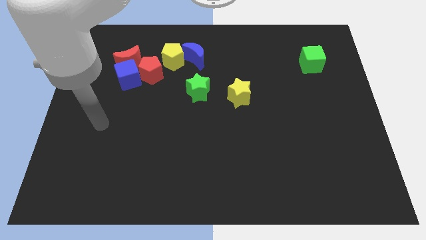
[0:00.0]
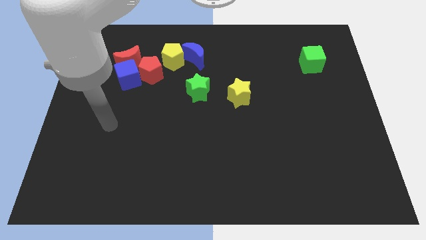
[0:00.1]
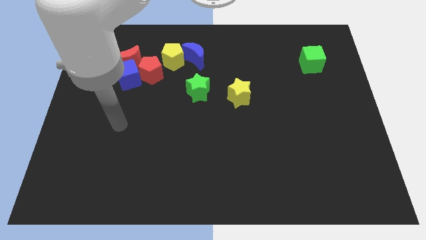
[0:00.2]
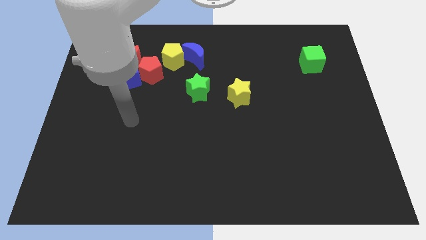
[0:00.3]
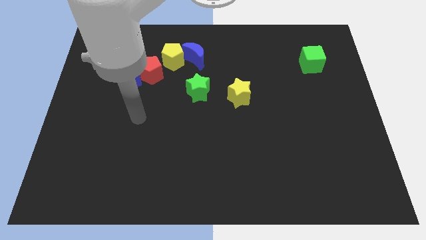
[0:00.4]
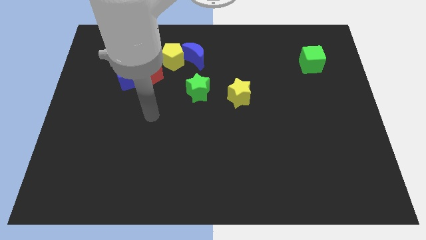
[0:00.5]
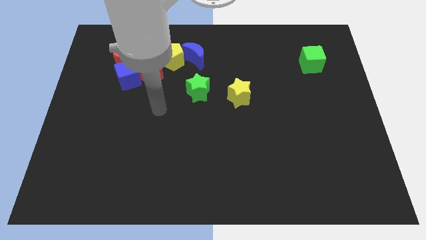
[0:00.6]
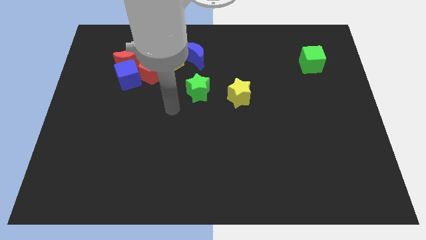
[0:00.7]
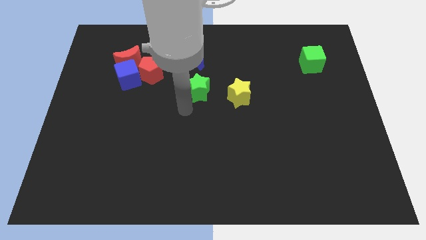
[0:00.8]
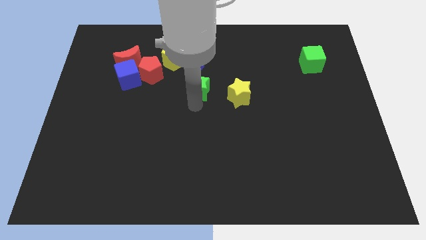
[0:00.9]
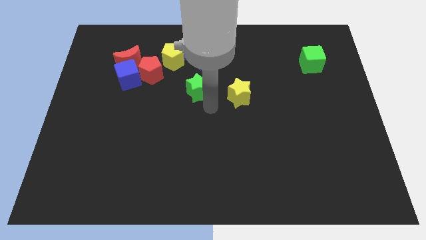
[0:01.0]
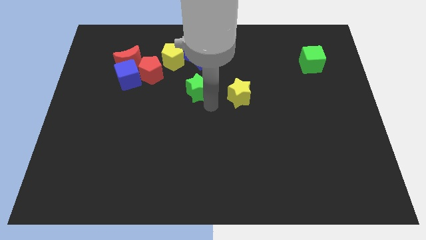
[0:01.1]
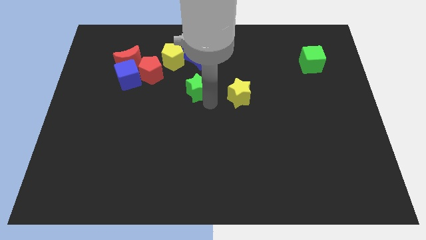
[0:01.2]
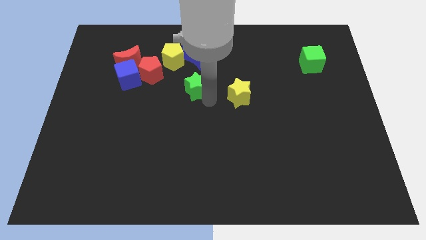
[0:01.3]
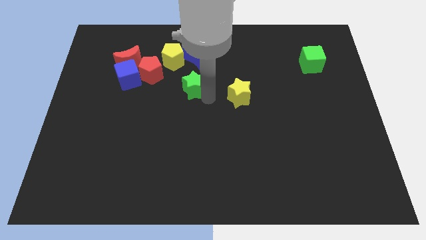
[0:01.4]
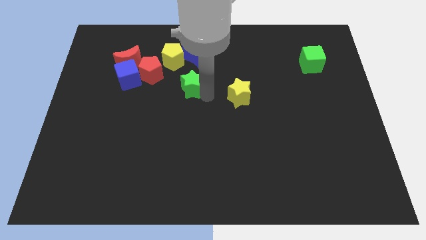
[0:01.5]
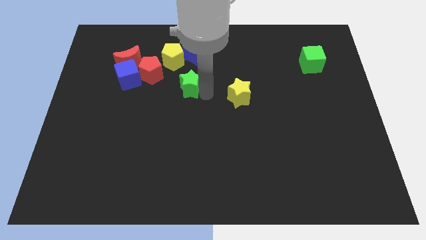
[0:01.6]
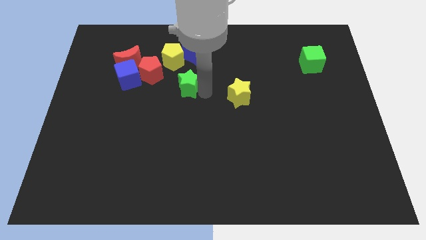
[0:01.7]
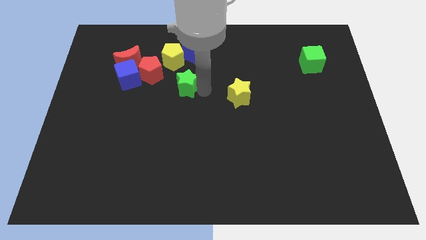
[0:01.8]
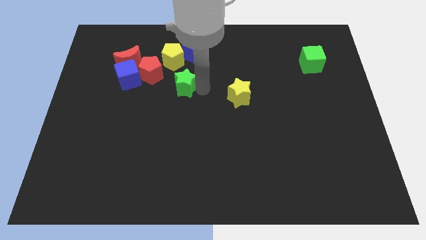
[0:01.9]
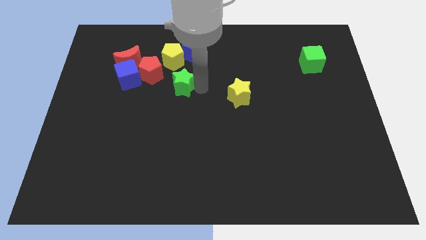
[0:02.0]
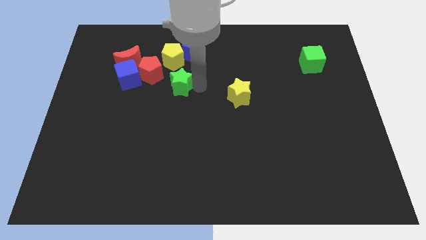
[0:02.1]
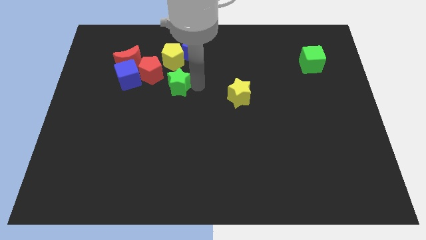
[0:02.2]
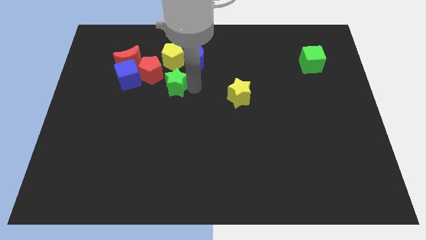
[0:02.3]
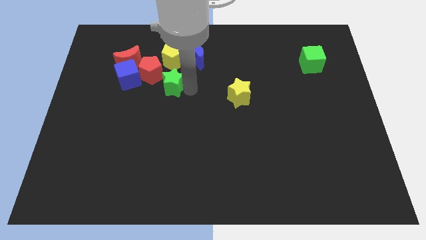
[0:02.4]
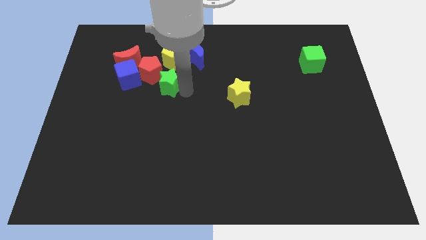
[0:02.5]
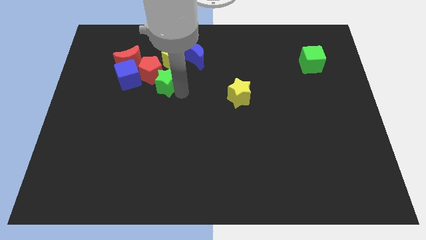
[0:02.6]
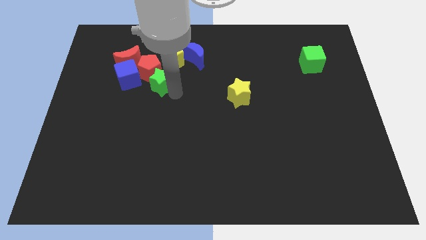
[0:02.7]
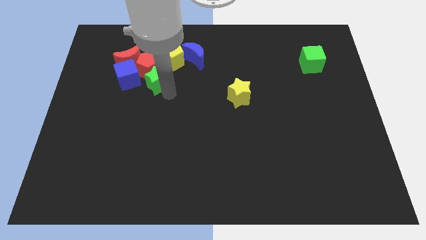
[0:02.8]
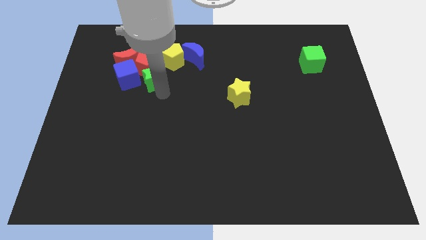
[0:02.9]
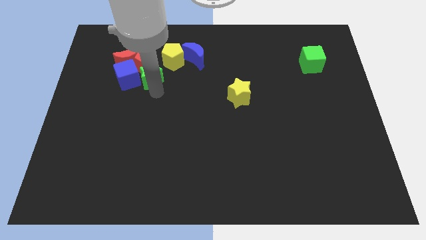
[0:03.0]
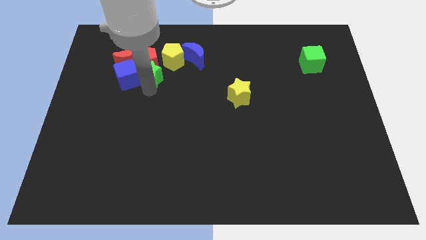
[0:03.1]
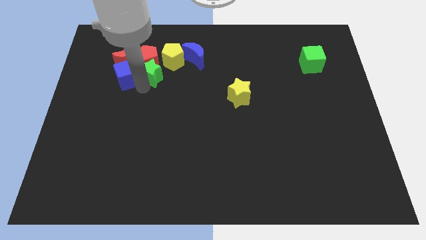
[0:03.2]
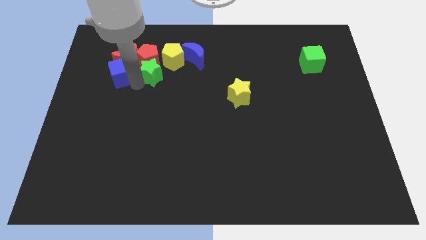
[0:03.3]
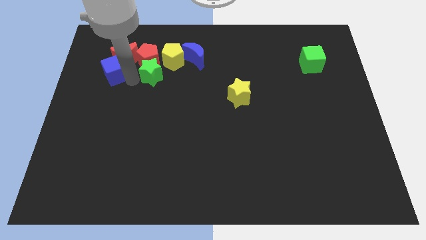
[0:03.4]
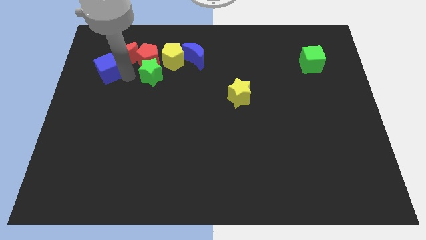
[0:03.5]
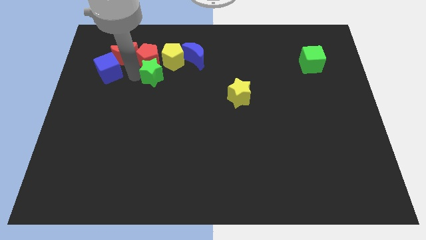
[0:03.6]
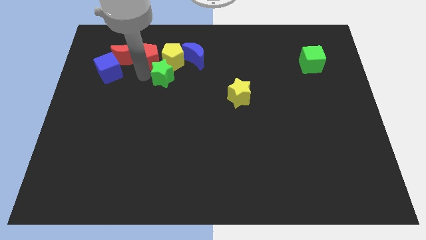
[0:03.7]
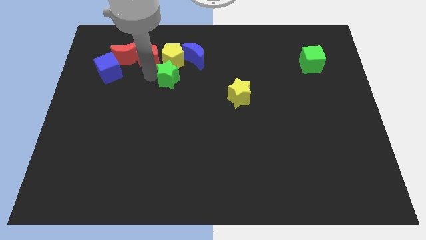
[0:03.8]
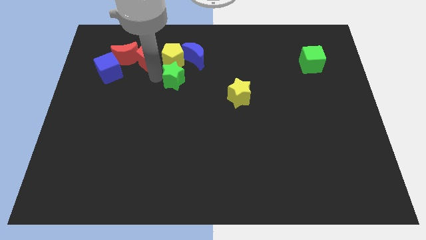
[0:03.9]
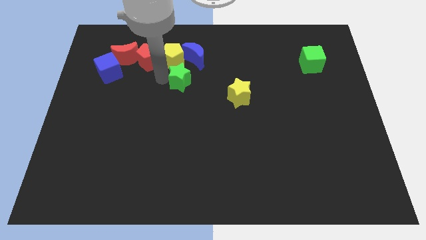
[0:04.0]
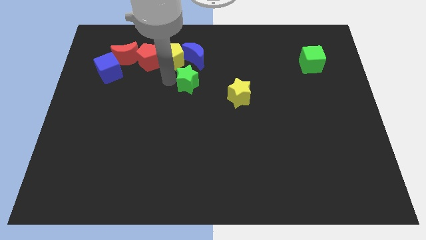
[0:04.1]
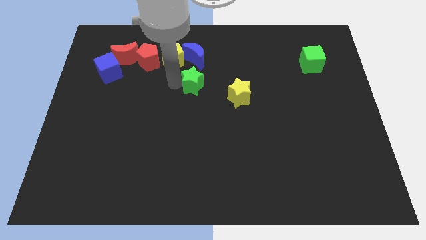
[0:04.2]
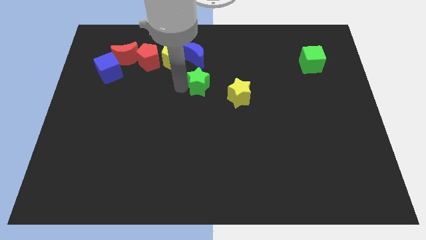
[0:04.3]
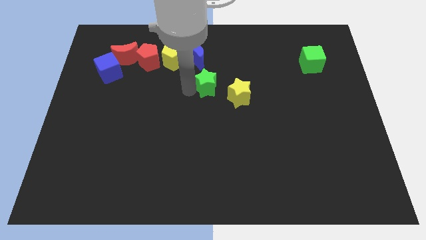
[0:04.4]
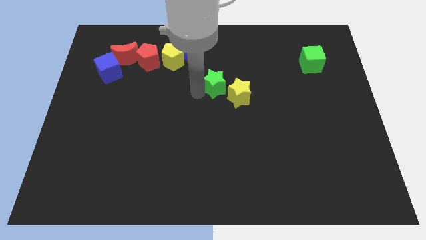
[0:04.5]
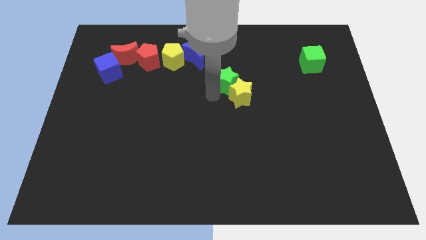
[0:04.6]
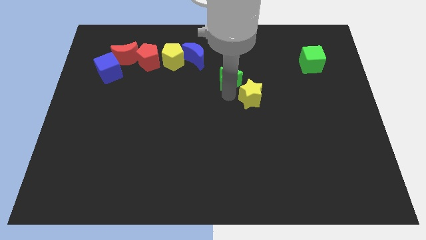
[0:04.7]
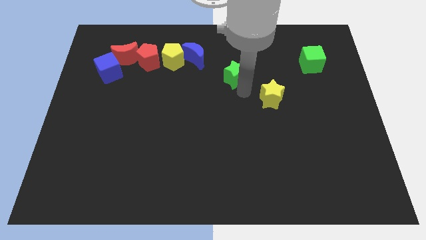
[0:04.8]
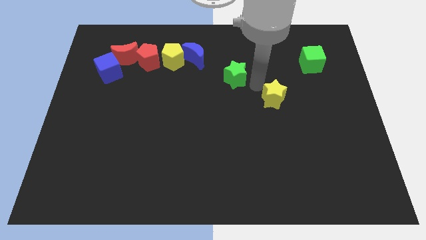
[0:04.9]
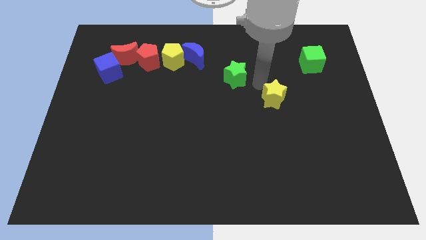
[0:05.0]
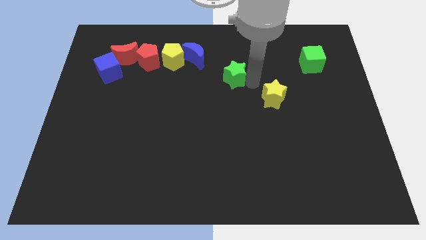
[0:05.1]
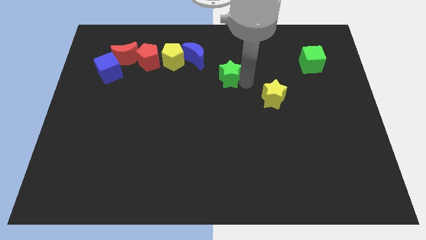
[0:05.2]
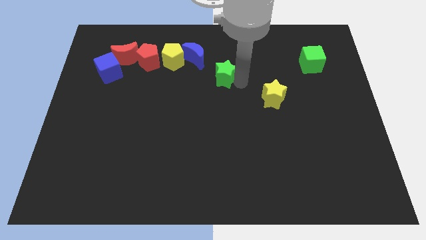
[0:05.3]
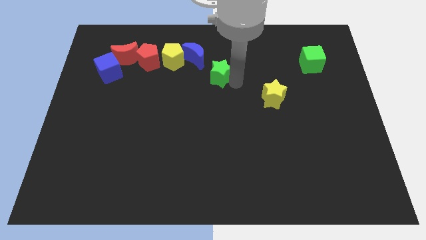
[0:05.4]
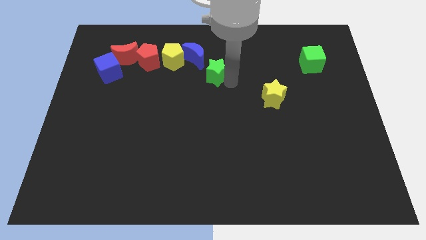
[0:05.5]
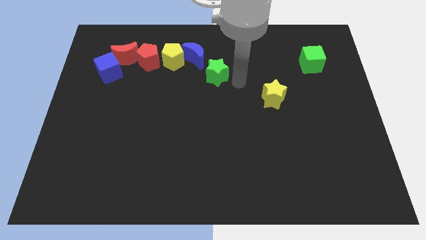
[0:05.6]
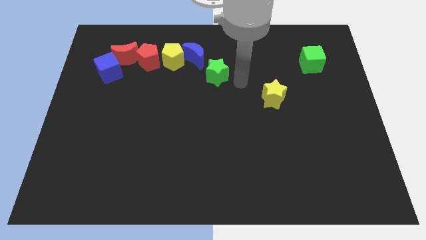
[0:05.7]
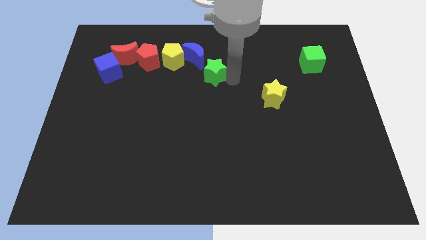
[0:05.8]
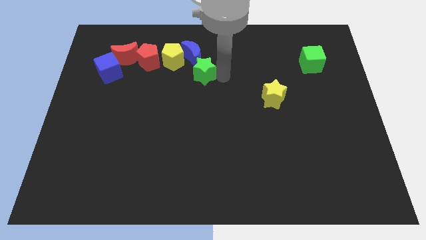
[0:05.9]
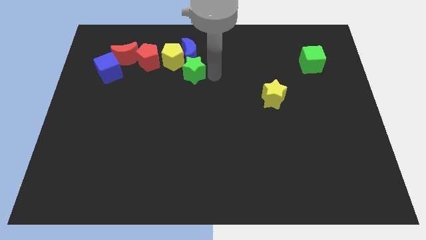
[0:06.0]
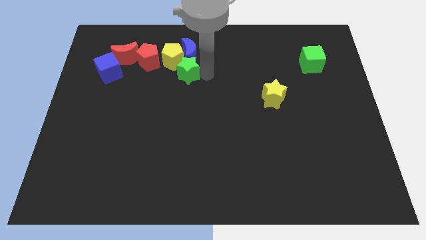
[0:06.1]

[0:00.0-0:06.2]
move the green star to the yellow pentagon

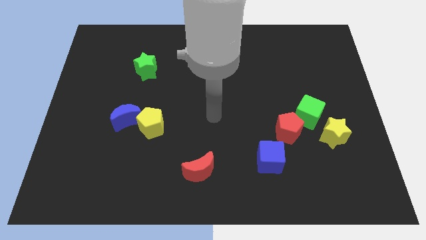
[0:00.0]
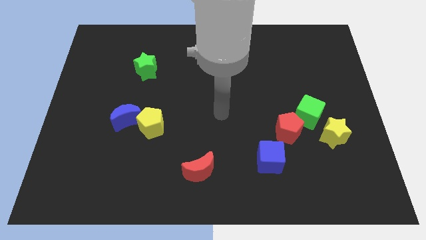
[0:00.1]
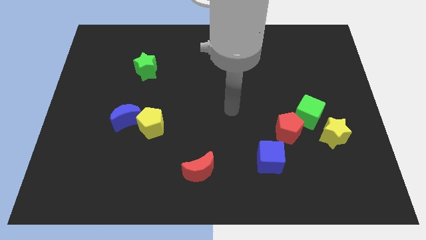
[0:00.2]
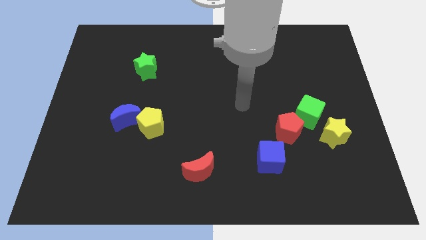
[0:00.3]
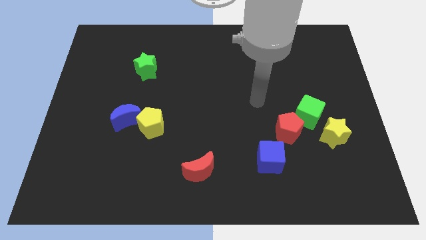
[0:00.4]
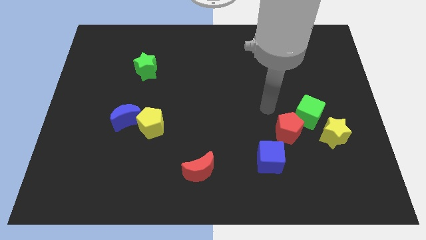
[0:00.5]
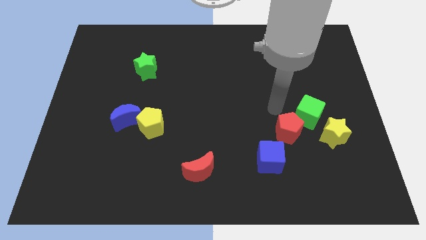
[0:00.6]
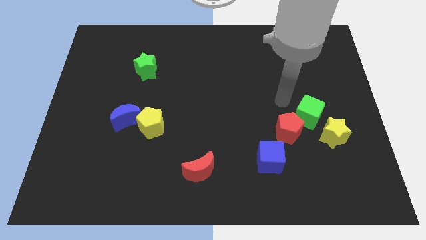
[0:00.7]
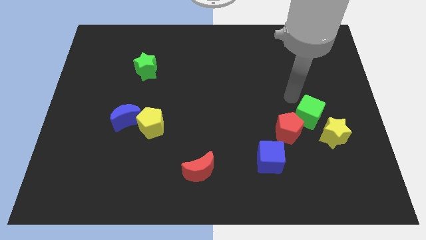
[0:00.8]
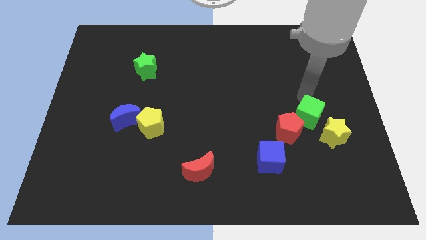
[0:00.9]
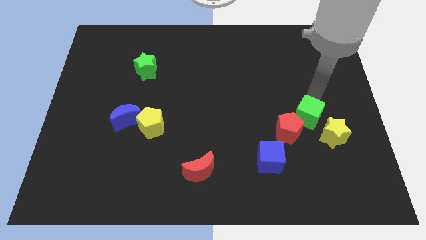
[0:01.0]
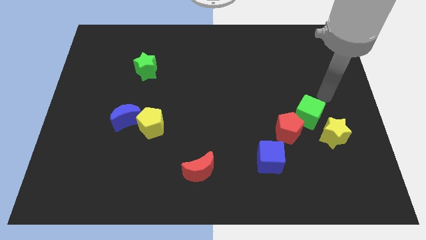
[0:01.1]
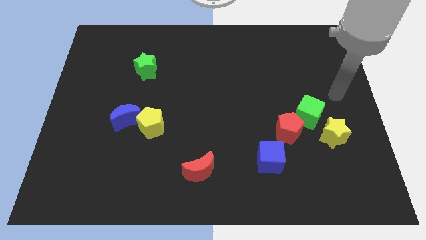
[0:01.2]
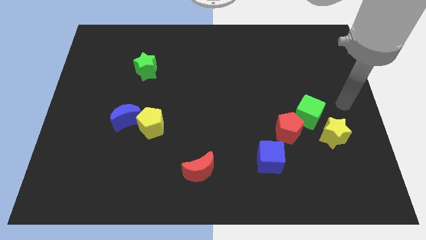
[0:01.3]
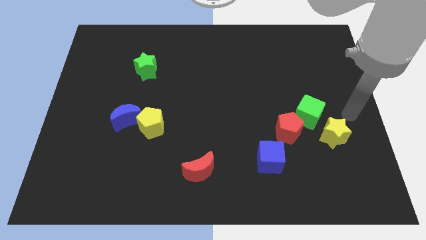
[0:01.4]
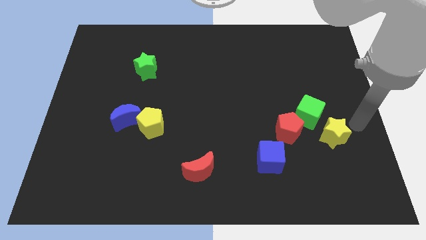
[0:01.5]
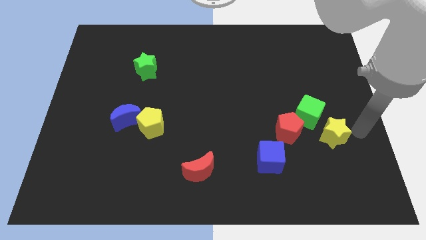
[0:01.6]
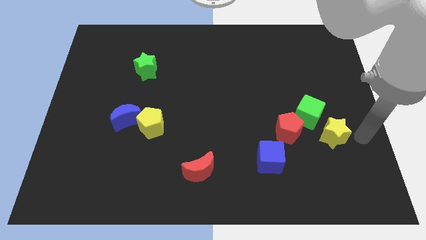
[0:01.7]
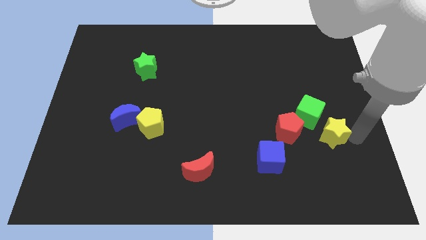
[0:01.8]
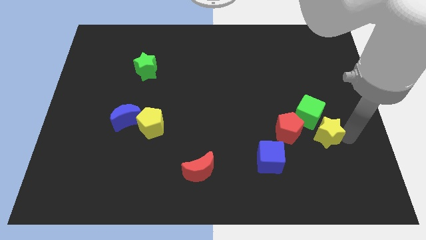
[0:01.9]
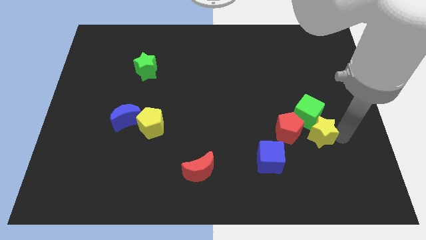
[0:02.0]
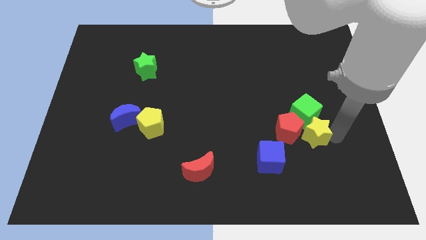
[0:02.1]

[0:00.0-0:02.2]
slide the yellow star close to the red pentagon
